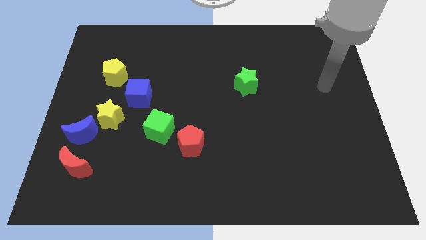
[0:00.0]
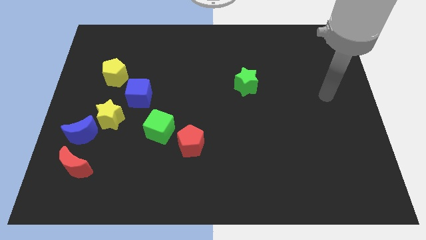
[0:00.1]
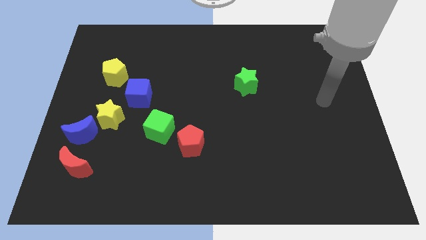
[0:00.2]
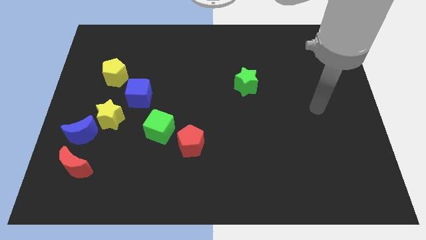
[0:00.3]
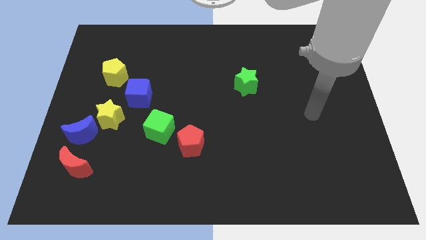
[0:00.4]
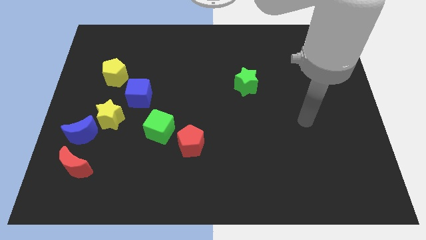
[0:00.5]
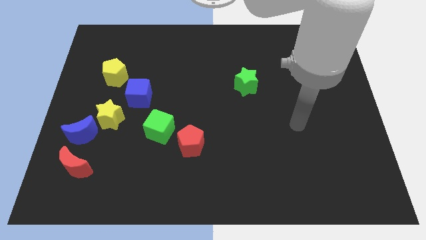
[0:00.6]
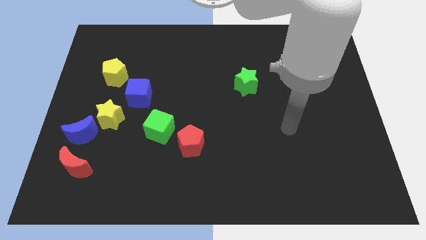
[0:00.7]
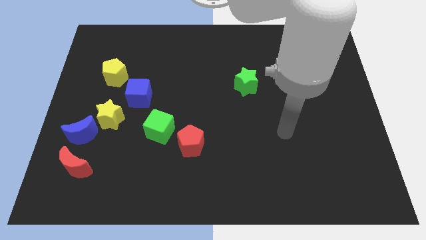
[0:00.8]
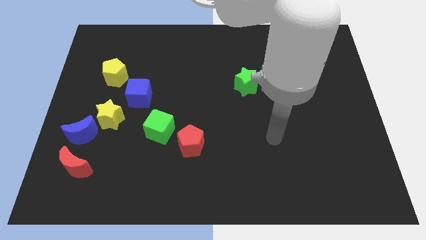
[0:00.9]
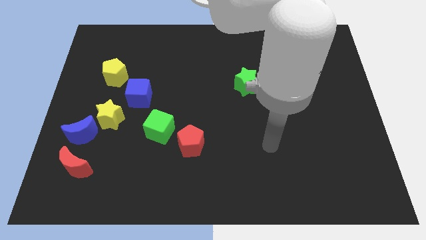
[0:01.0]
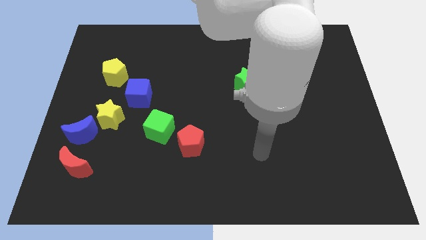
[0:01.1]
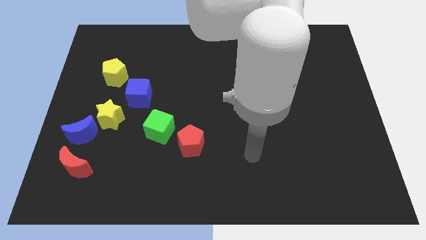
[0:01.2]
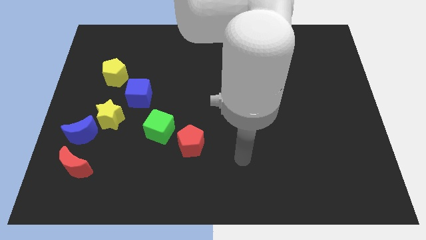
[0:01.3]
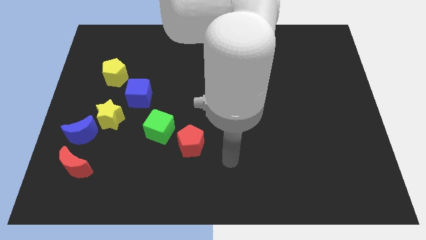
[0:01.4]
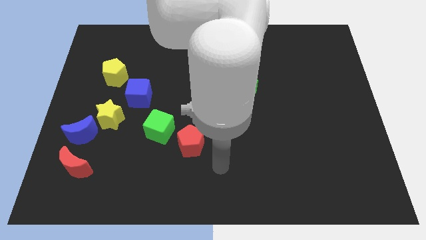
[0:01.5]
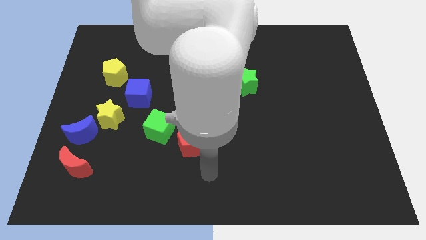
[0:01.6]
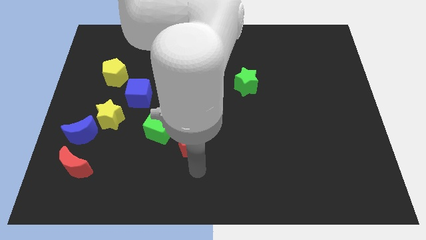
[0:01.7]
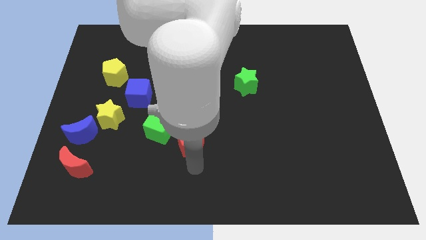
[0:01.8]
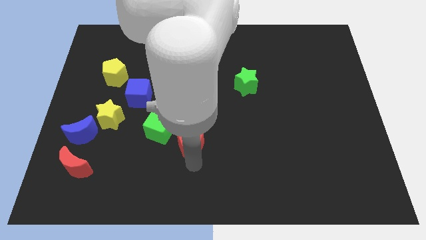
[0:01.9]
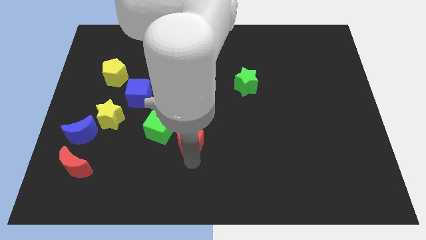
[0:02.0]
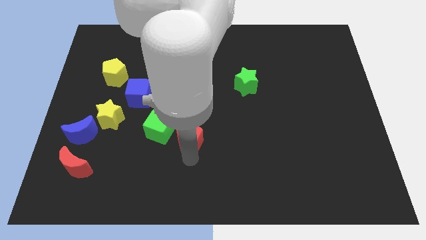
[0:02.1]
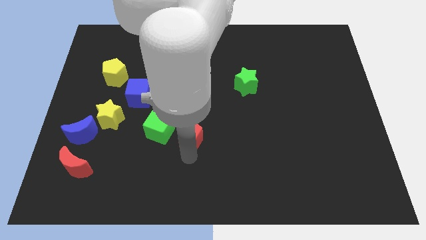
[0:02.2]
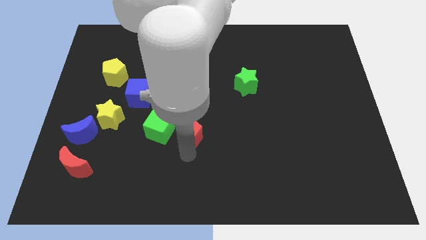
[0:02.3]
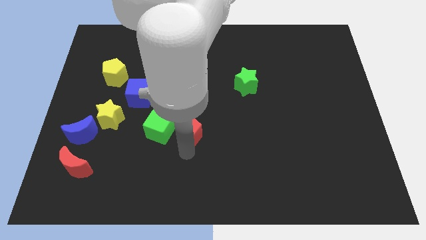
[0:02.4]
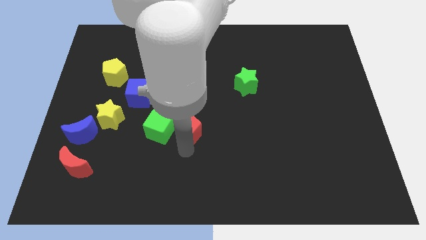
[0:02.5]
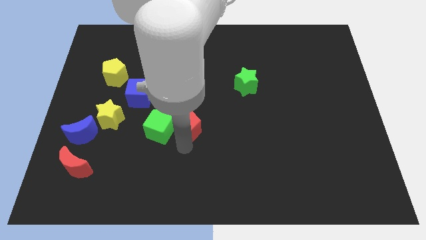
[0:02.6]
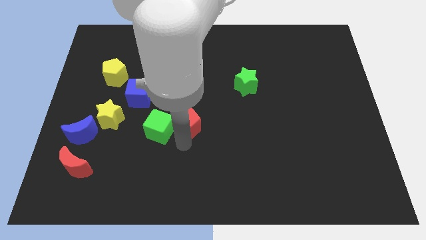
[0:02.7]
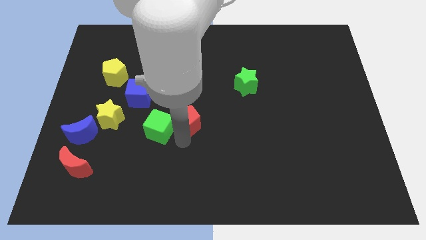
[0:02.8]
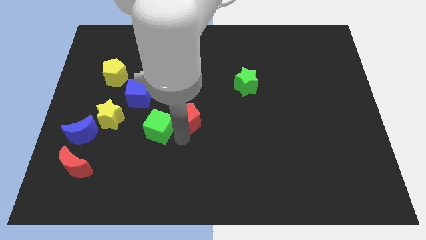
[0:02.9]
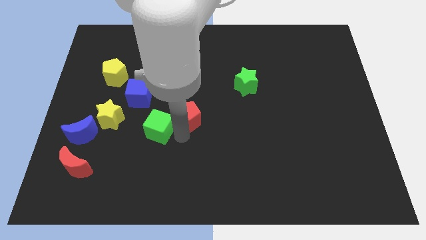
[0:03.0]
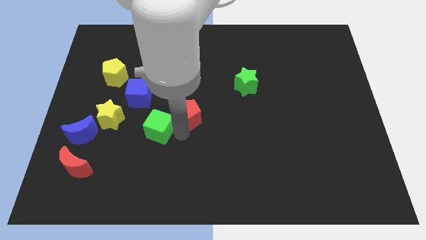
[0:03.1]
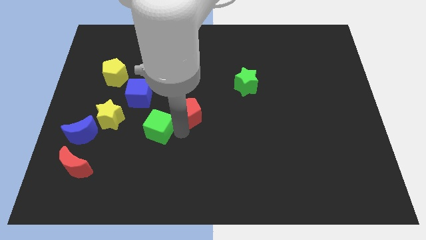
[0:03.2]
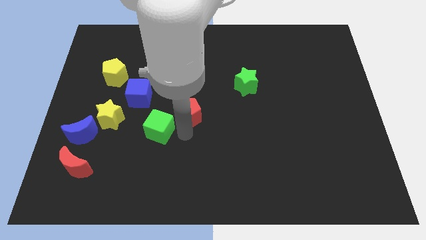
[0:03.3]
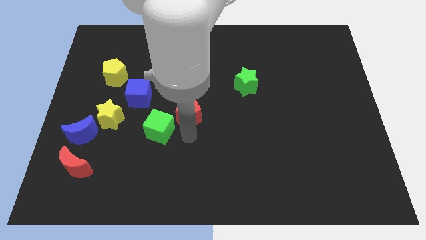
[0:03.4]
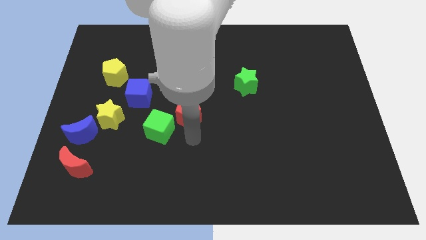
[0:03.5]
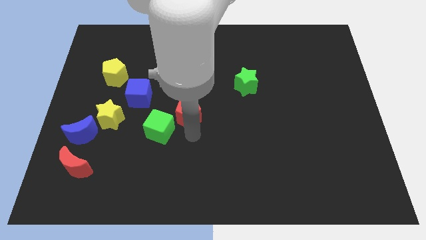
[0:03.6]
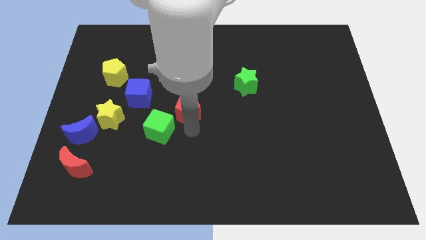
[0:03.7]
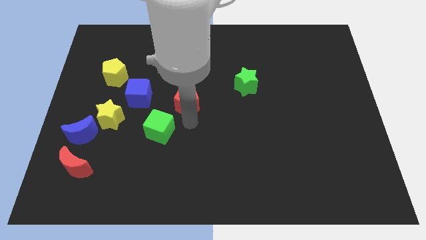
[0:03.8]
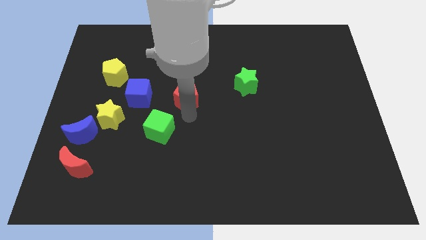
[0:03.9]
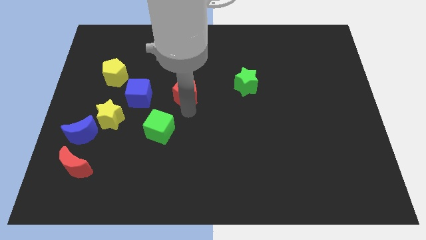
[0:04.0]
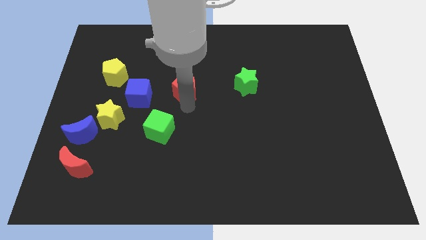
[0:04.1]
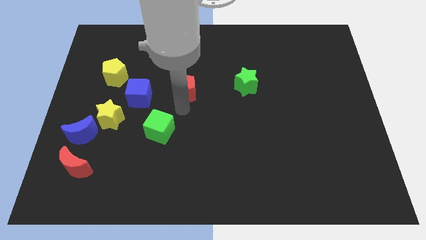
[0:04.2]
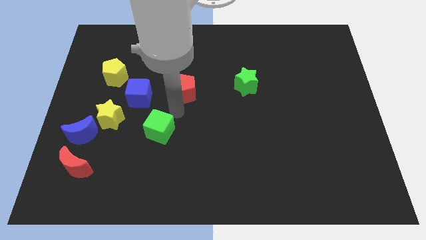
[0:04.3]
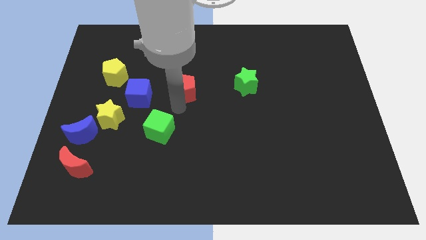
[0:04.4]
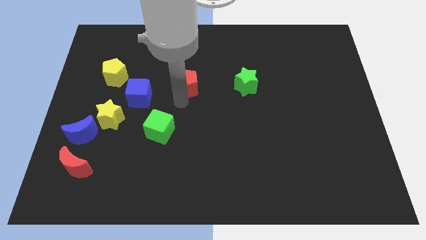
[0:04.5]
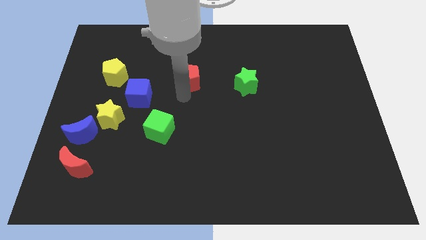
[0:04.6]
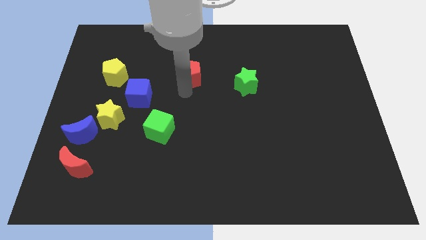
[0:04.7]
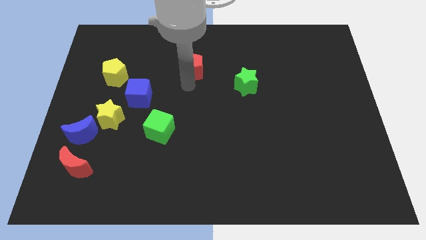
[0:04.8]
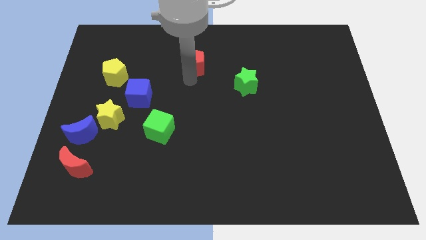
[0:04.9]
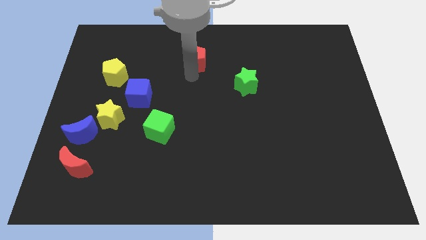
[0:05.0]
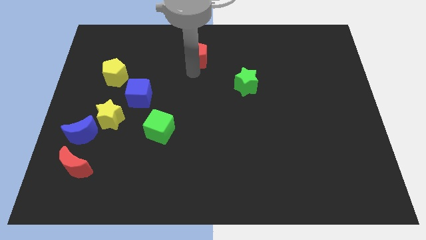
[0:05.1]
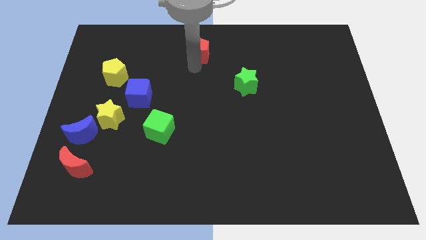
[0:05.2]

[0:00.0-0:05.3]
slide the red pentagon to the top side
